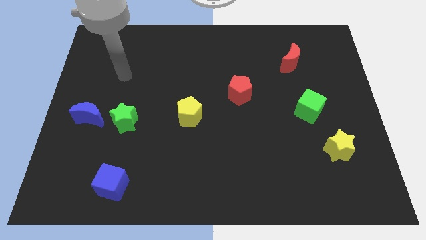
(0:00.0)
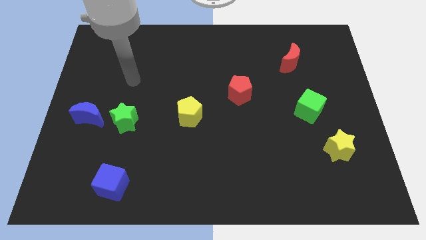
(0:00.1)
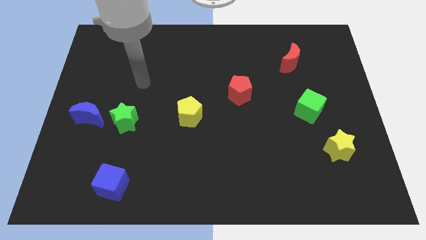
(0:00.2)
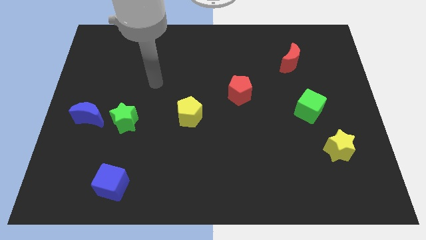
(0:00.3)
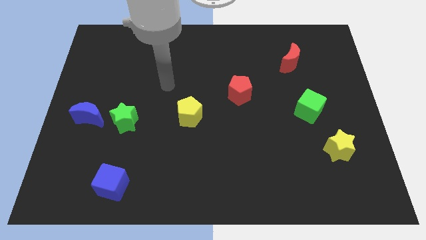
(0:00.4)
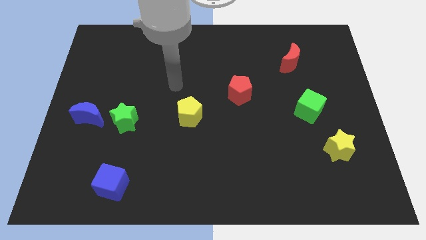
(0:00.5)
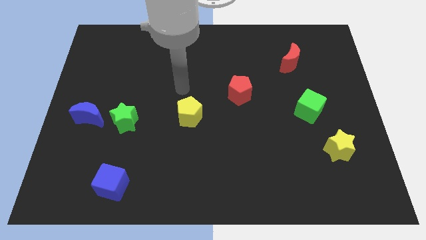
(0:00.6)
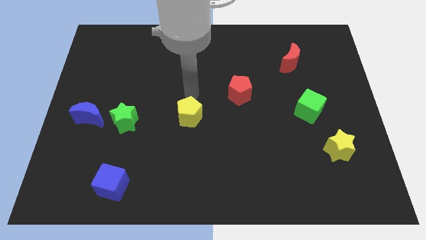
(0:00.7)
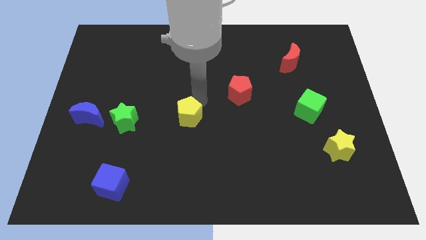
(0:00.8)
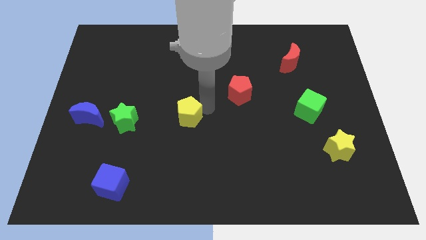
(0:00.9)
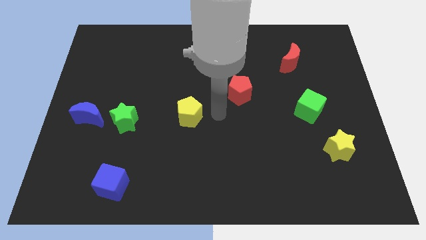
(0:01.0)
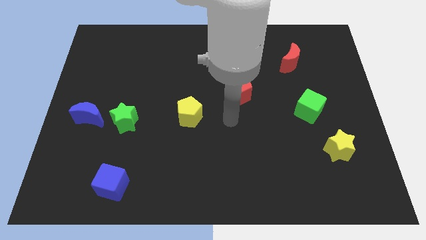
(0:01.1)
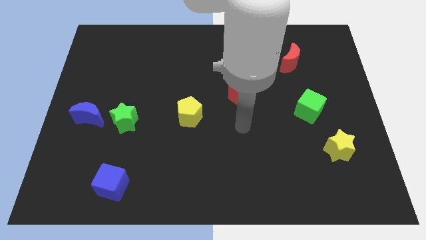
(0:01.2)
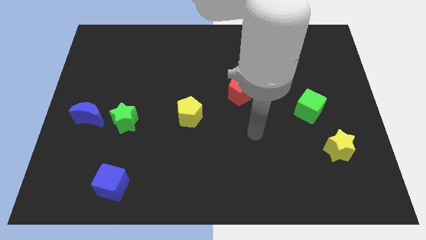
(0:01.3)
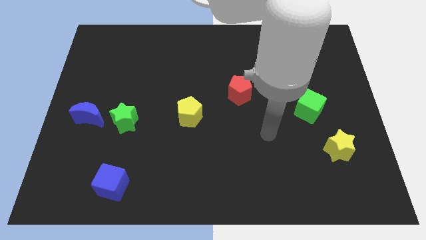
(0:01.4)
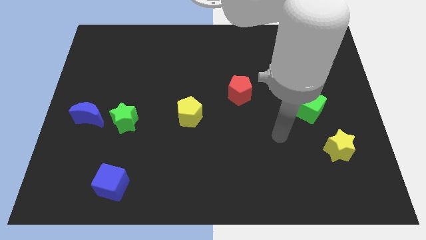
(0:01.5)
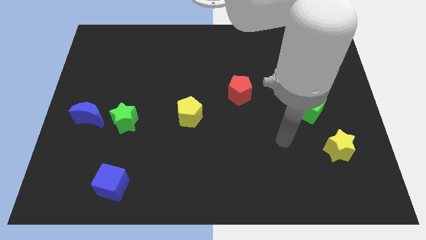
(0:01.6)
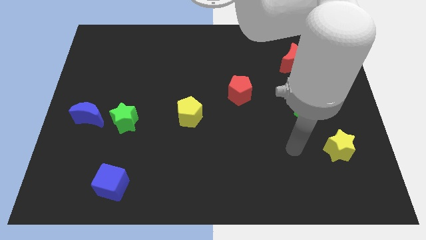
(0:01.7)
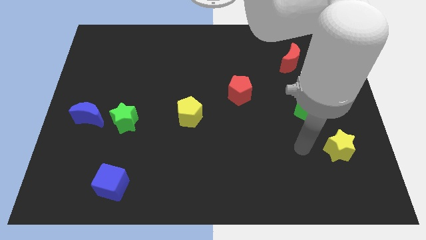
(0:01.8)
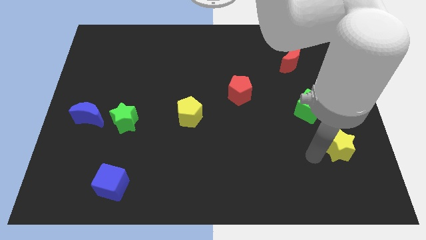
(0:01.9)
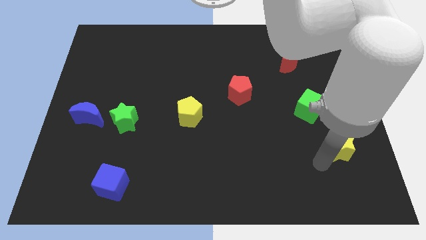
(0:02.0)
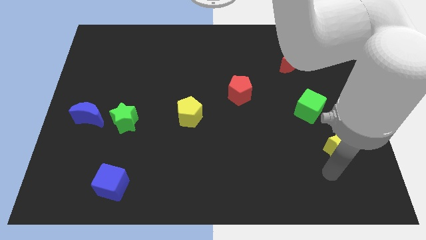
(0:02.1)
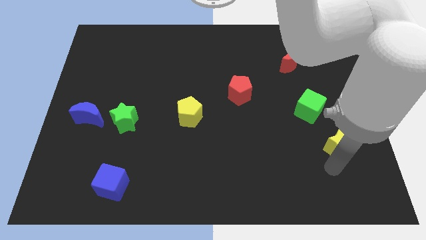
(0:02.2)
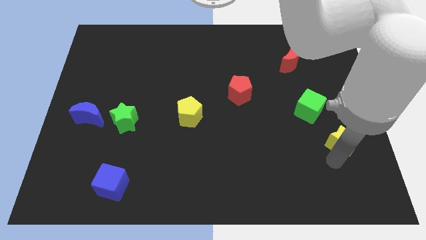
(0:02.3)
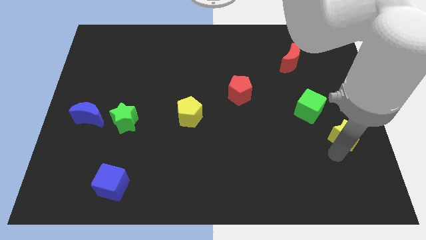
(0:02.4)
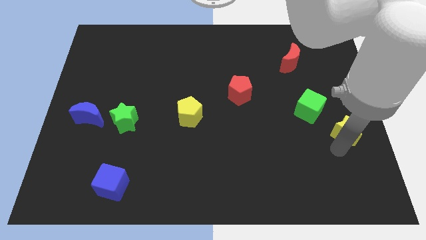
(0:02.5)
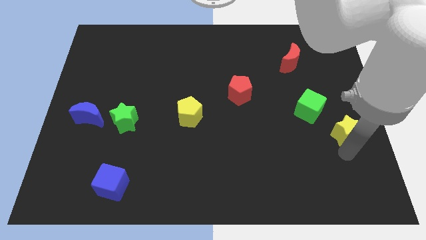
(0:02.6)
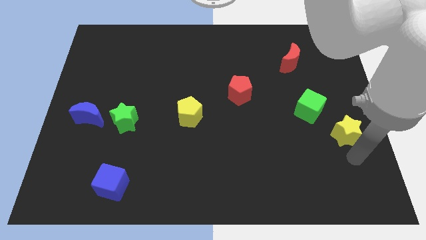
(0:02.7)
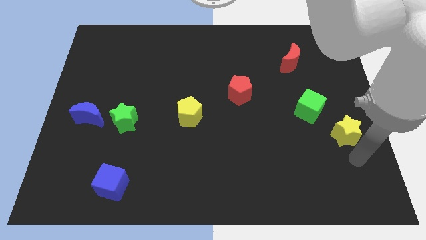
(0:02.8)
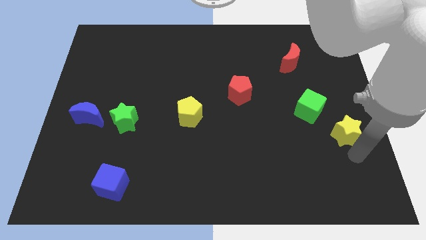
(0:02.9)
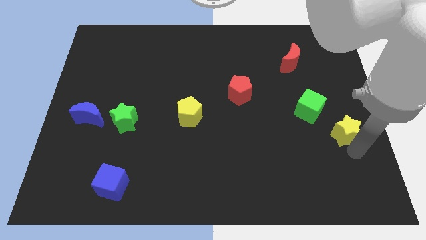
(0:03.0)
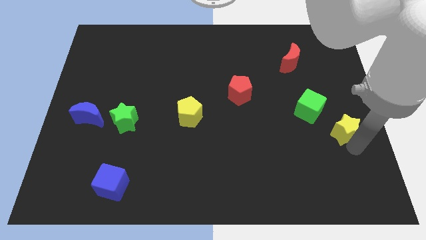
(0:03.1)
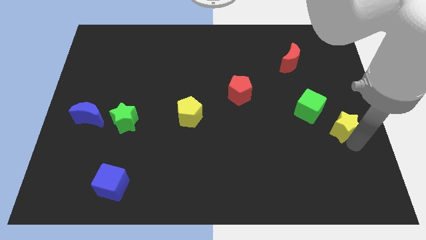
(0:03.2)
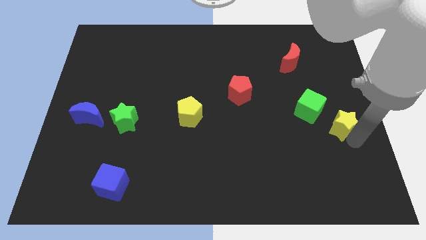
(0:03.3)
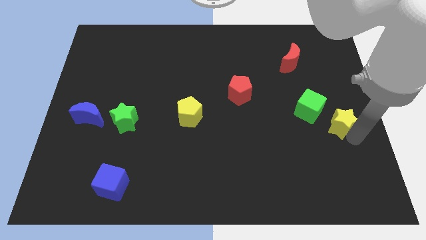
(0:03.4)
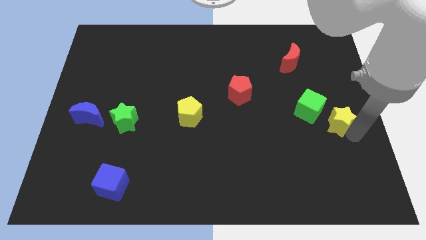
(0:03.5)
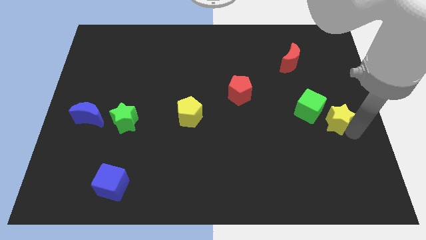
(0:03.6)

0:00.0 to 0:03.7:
move the yellow star a bit up

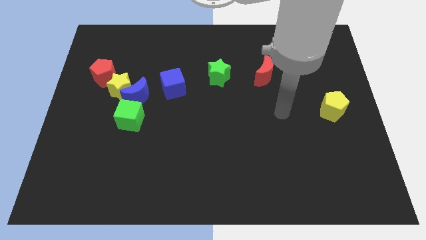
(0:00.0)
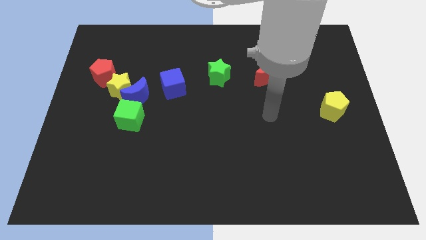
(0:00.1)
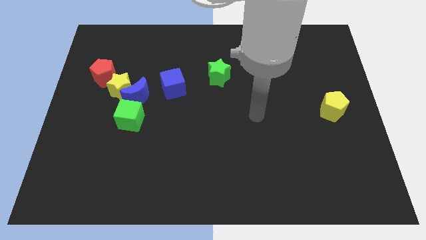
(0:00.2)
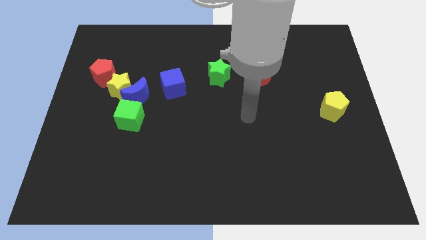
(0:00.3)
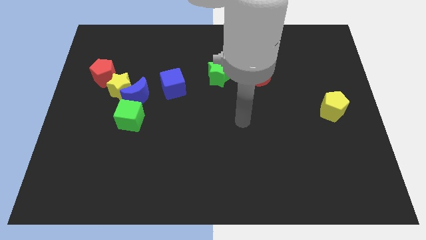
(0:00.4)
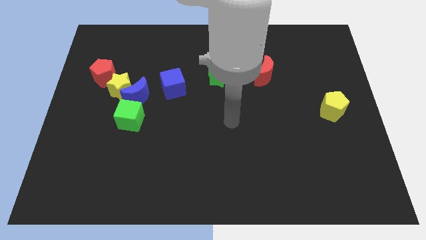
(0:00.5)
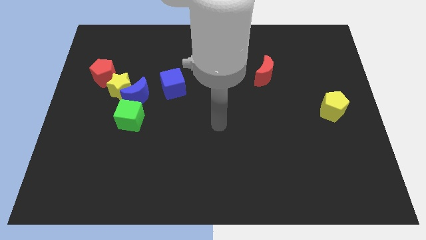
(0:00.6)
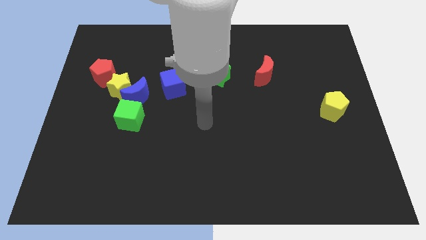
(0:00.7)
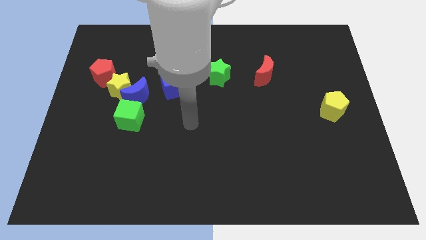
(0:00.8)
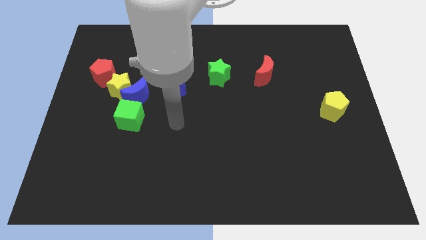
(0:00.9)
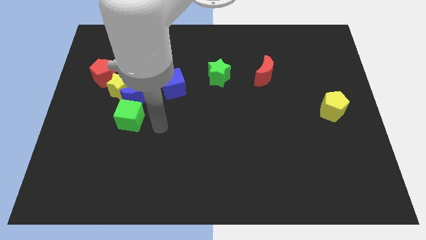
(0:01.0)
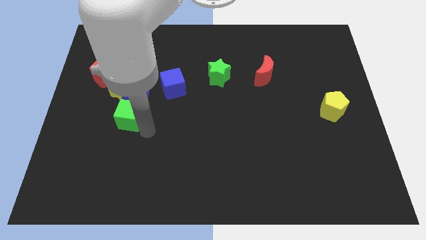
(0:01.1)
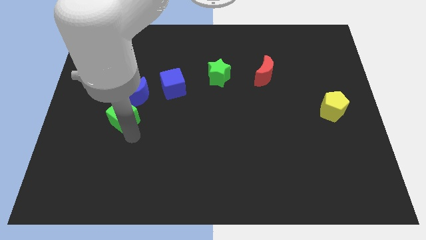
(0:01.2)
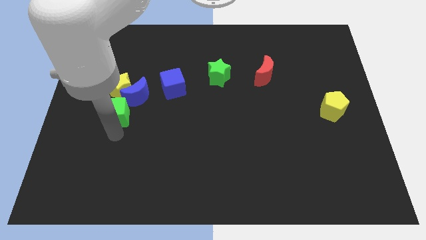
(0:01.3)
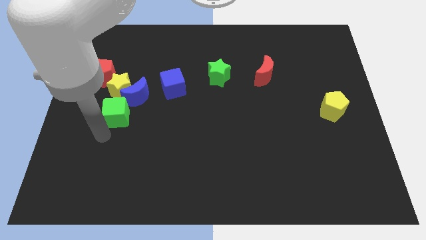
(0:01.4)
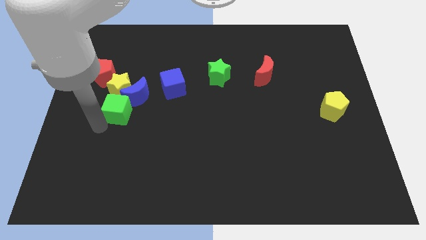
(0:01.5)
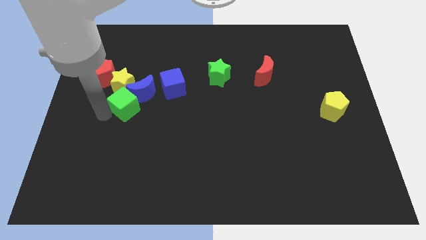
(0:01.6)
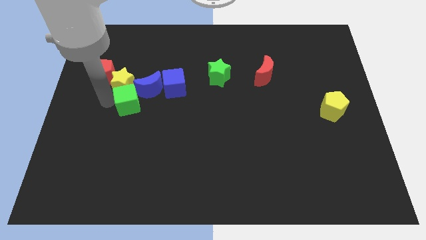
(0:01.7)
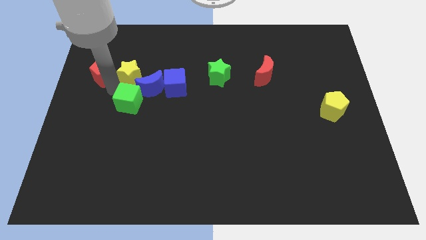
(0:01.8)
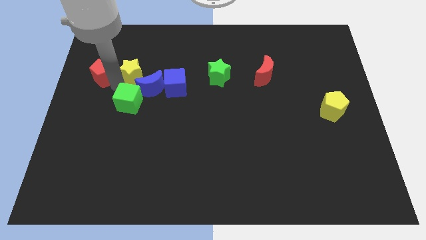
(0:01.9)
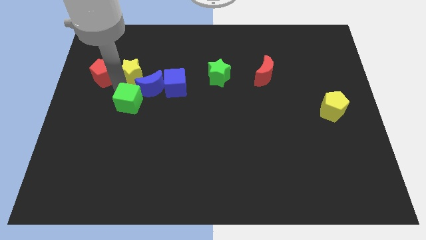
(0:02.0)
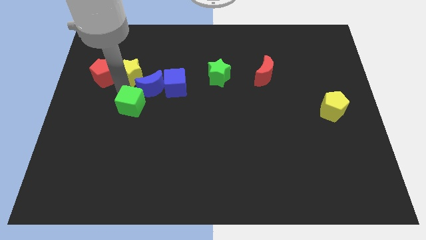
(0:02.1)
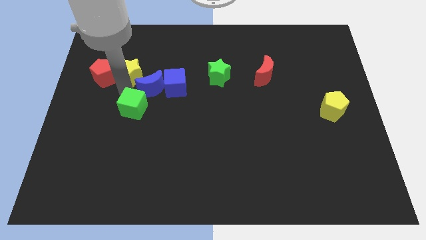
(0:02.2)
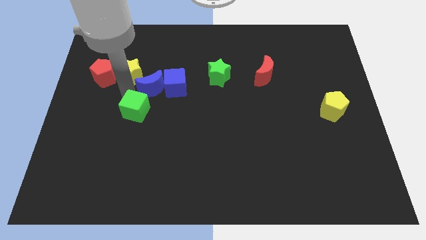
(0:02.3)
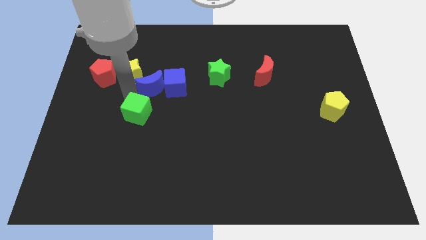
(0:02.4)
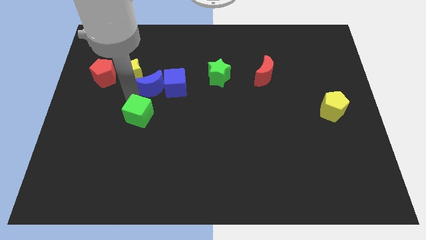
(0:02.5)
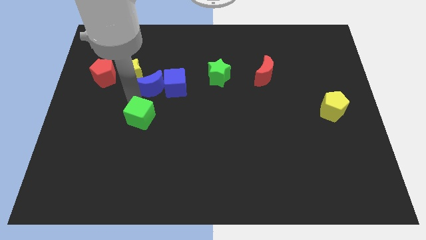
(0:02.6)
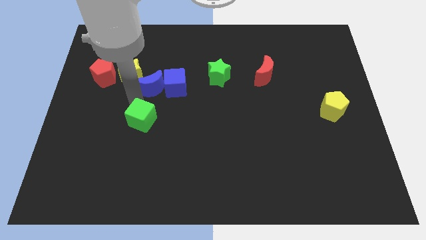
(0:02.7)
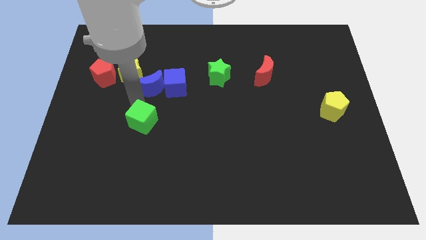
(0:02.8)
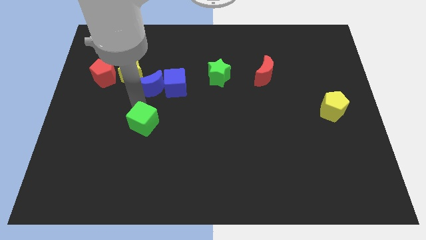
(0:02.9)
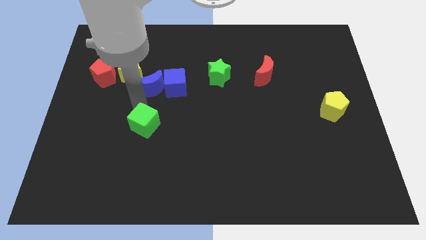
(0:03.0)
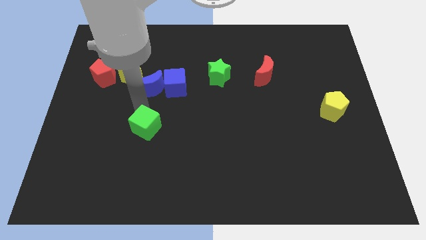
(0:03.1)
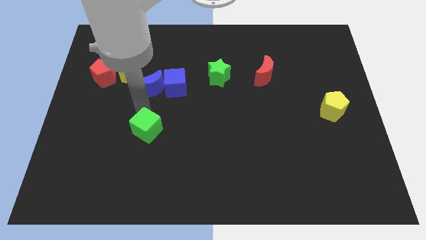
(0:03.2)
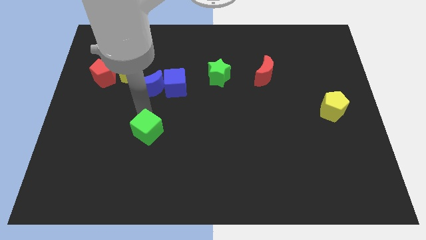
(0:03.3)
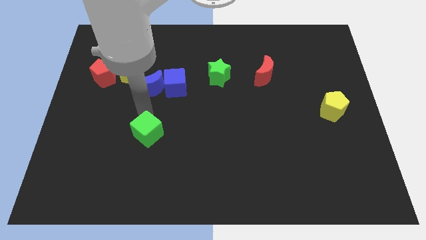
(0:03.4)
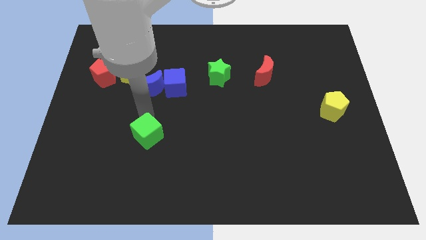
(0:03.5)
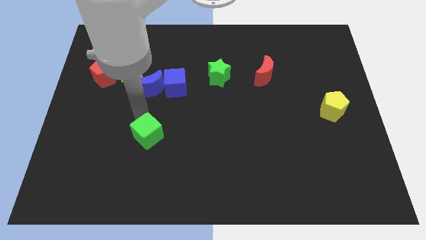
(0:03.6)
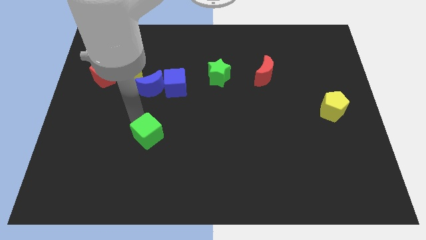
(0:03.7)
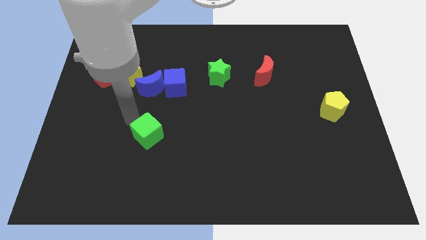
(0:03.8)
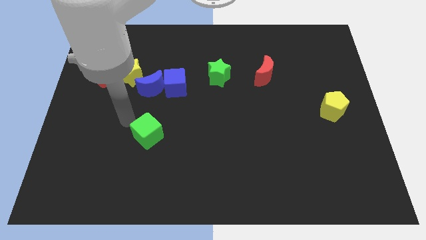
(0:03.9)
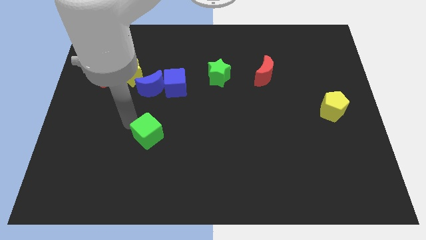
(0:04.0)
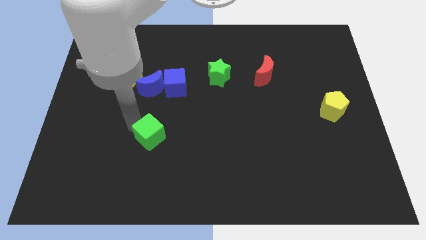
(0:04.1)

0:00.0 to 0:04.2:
slightly slide the green cube downwards and to the right diagonally

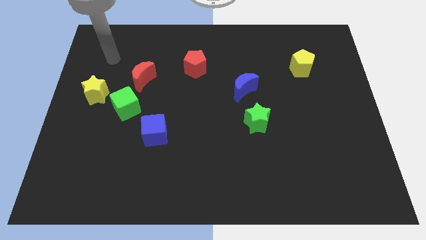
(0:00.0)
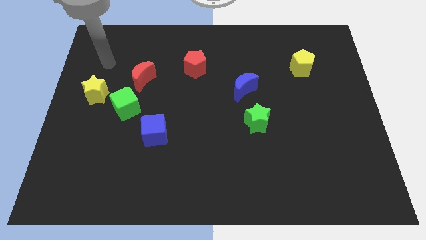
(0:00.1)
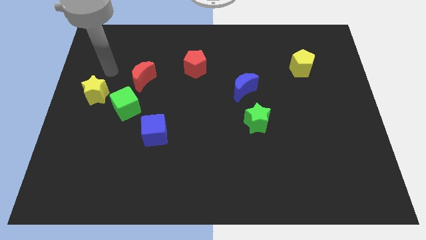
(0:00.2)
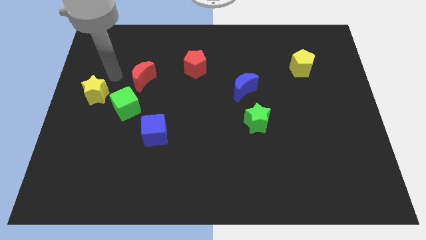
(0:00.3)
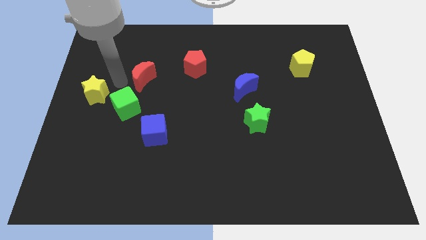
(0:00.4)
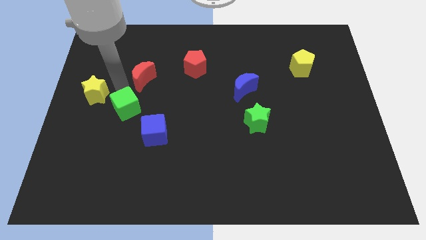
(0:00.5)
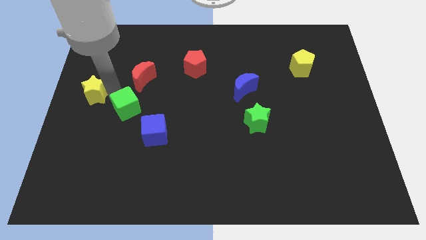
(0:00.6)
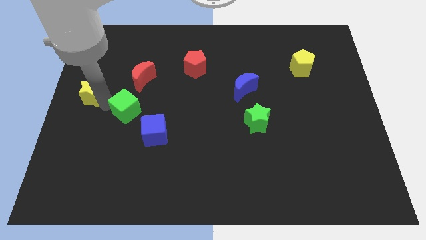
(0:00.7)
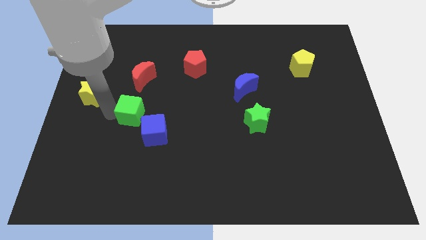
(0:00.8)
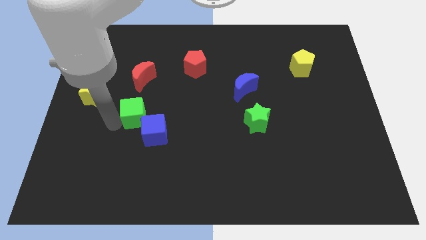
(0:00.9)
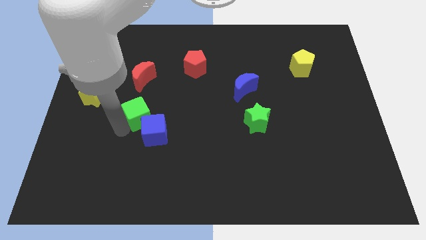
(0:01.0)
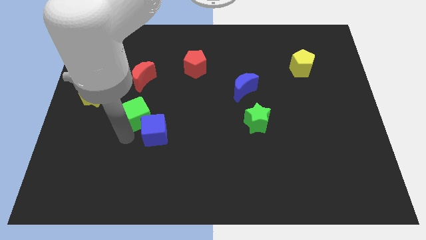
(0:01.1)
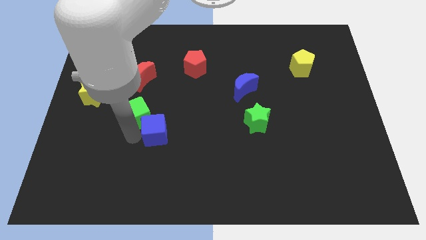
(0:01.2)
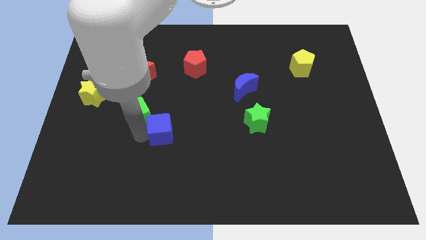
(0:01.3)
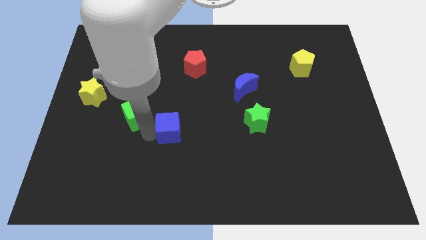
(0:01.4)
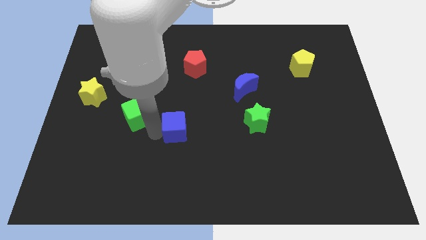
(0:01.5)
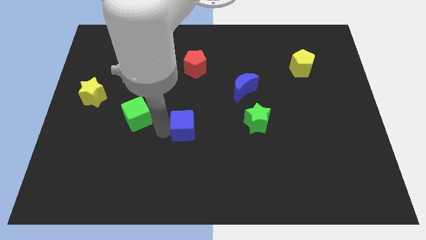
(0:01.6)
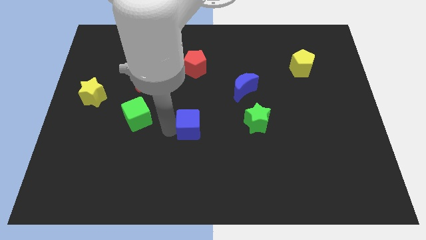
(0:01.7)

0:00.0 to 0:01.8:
push the blue cube a little bit to the right
